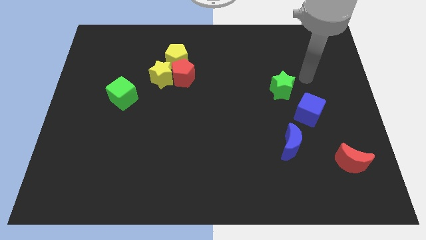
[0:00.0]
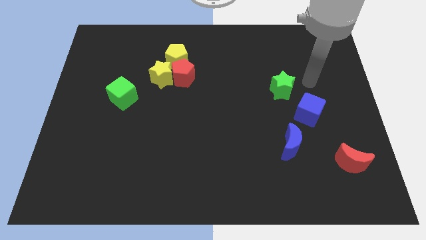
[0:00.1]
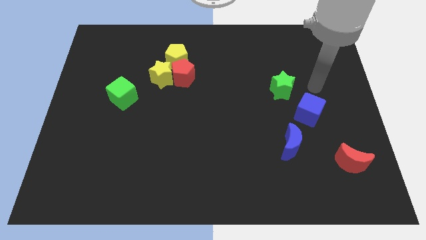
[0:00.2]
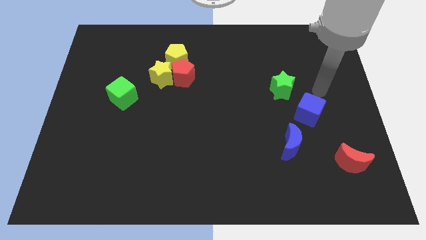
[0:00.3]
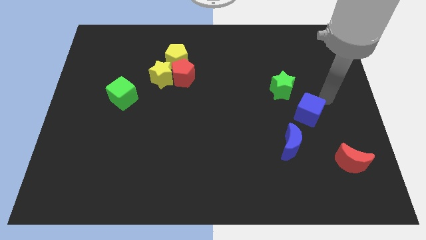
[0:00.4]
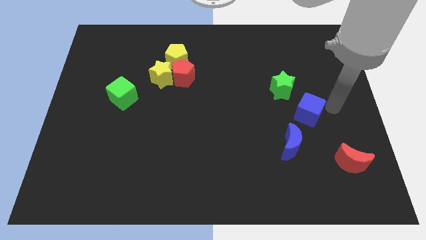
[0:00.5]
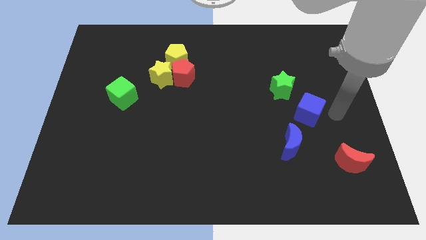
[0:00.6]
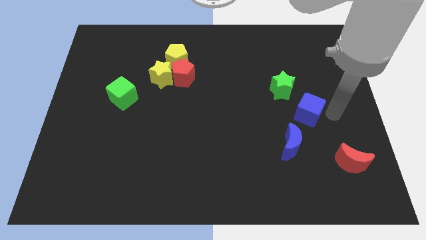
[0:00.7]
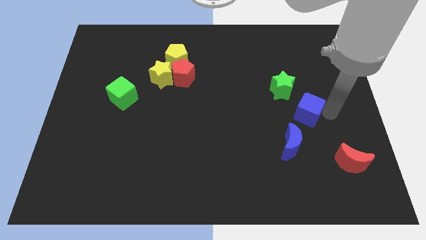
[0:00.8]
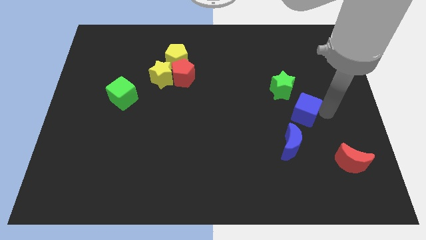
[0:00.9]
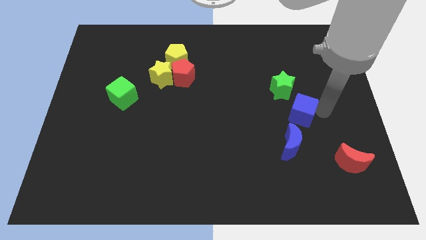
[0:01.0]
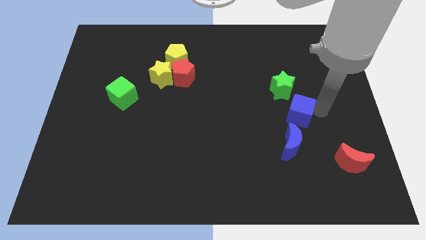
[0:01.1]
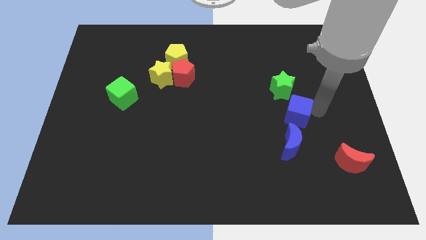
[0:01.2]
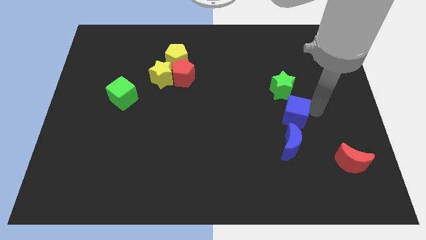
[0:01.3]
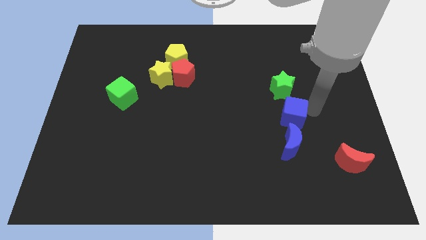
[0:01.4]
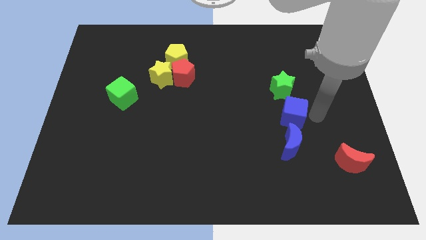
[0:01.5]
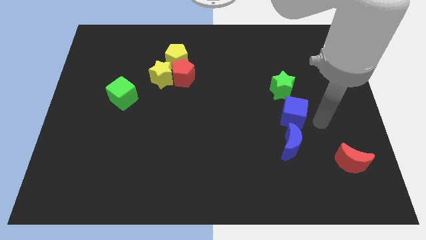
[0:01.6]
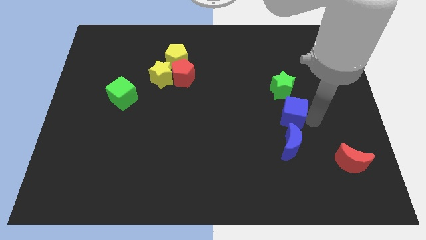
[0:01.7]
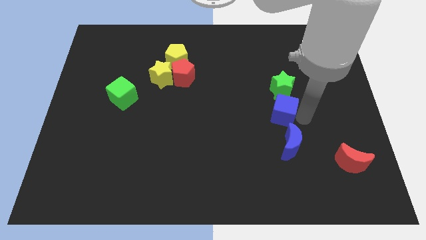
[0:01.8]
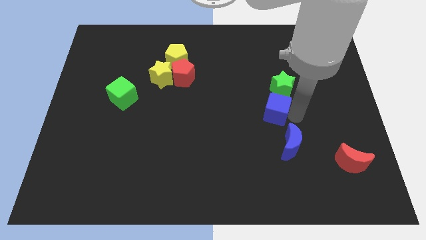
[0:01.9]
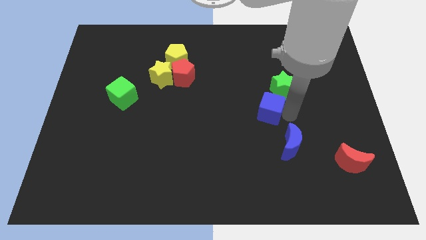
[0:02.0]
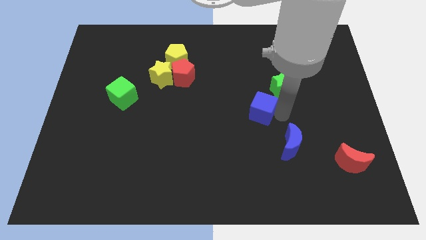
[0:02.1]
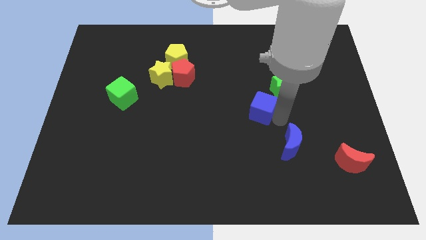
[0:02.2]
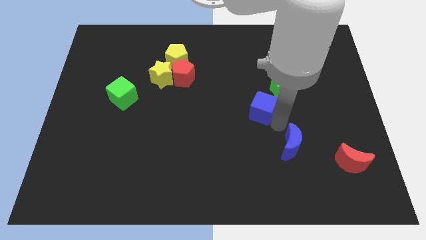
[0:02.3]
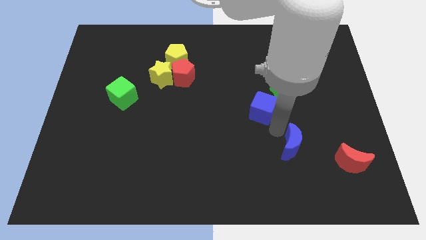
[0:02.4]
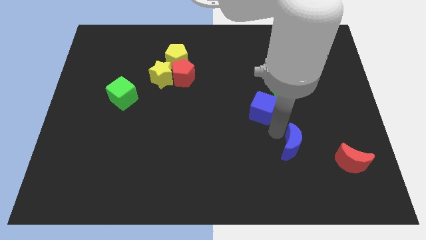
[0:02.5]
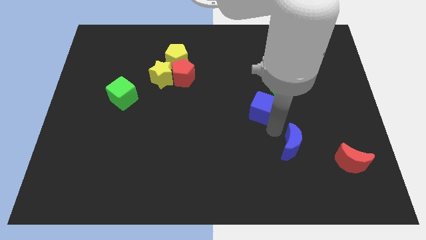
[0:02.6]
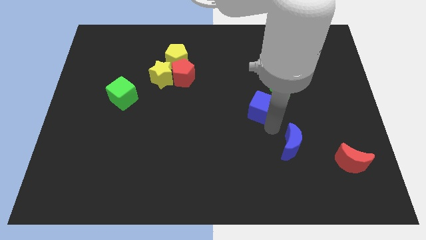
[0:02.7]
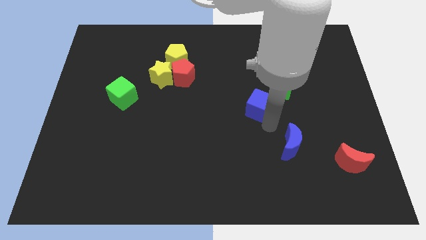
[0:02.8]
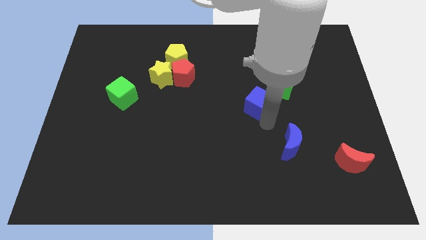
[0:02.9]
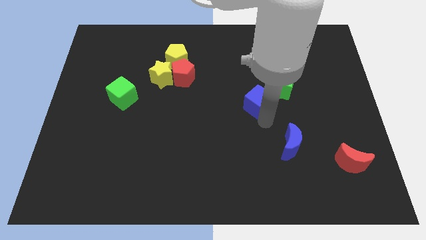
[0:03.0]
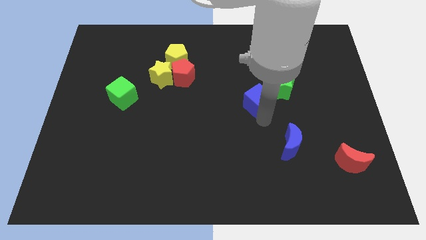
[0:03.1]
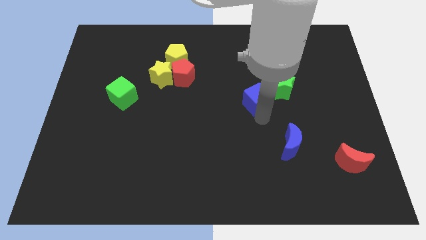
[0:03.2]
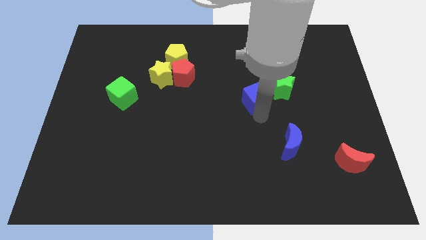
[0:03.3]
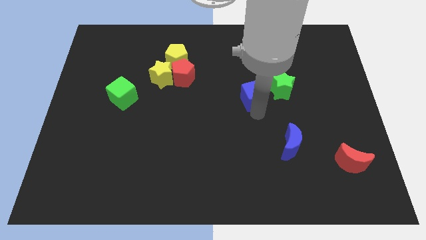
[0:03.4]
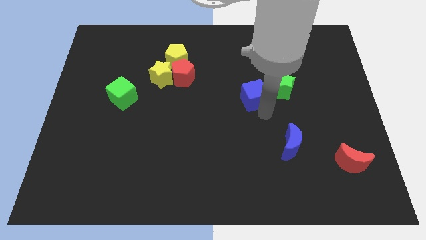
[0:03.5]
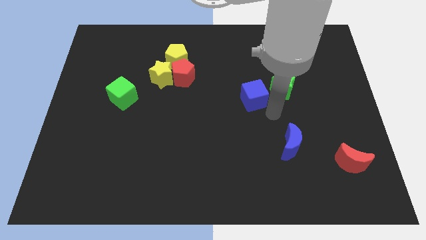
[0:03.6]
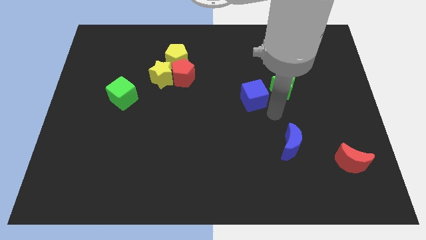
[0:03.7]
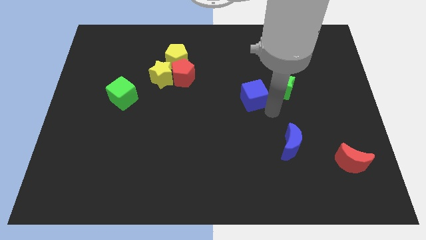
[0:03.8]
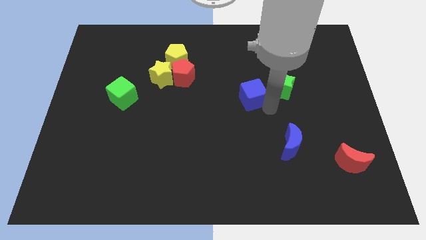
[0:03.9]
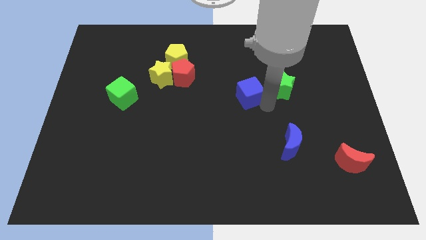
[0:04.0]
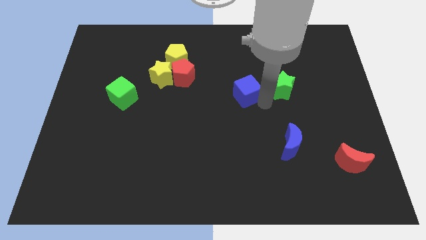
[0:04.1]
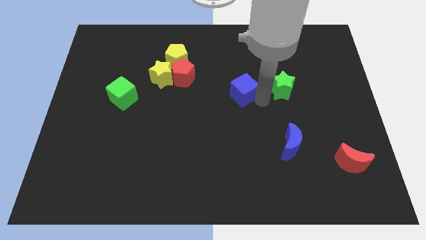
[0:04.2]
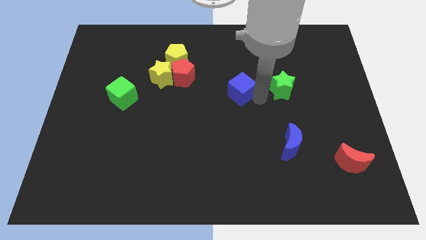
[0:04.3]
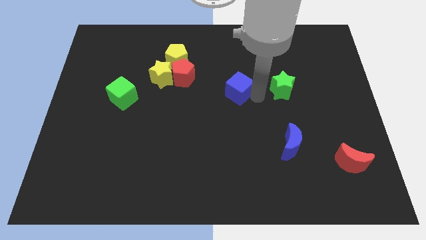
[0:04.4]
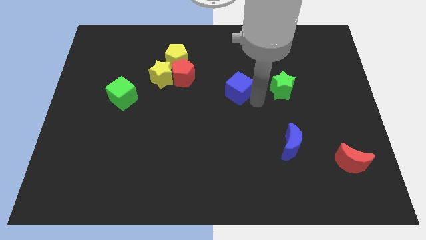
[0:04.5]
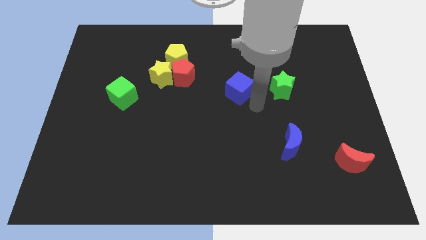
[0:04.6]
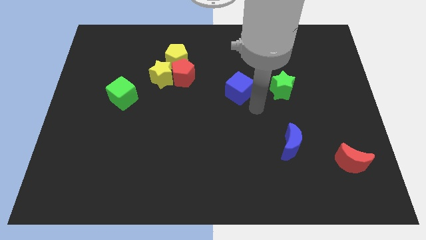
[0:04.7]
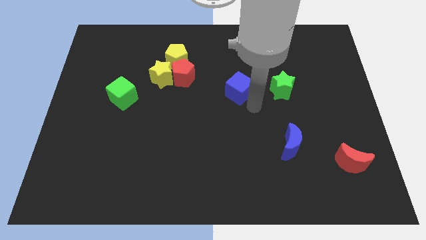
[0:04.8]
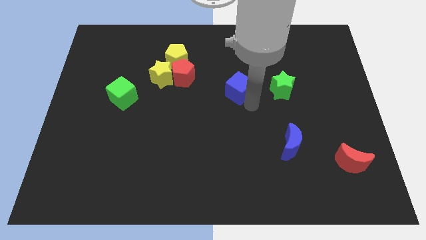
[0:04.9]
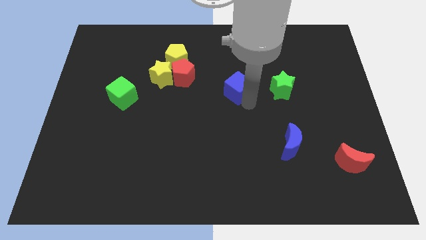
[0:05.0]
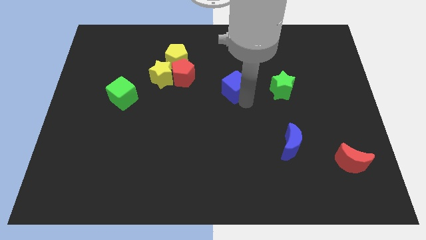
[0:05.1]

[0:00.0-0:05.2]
push the blue cube to the right of the red pentagon

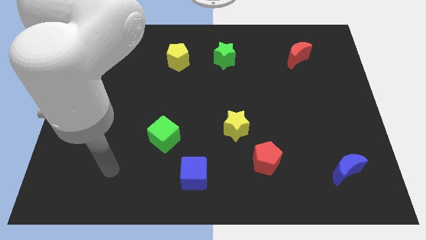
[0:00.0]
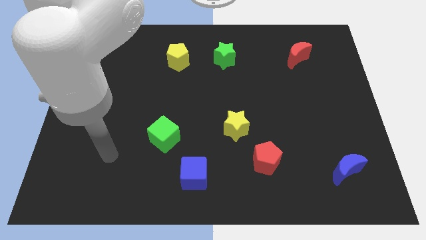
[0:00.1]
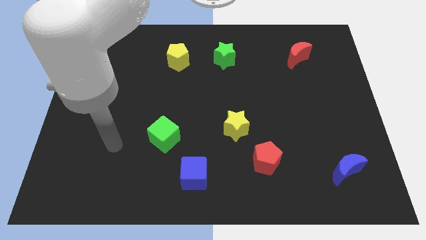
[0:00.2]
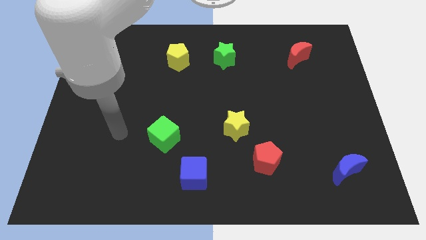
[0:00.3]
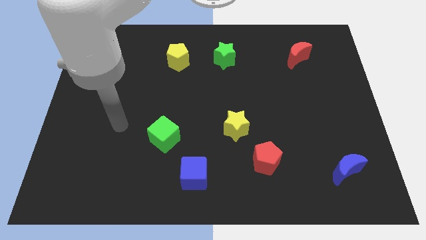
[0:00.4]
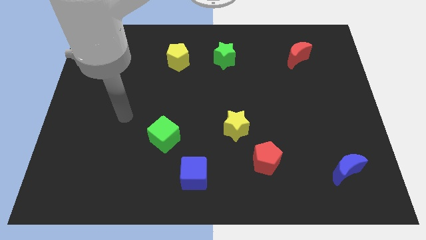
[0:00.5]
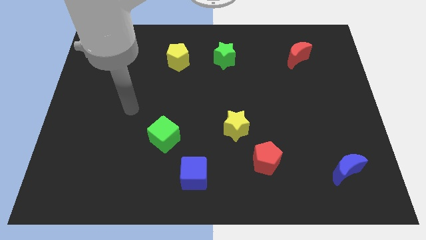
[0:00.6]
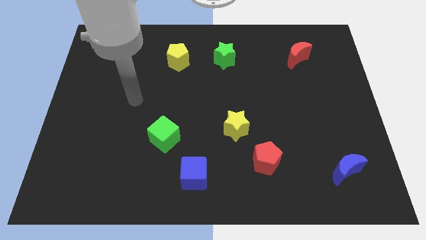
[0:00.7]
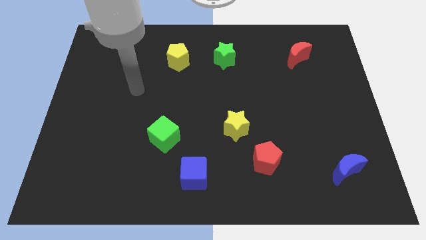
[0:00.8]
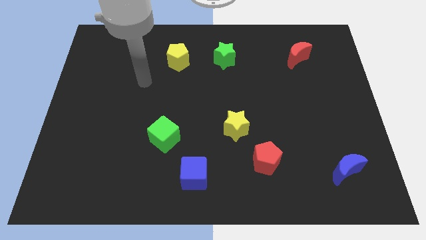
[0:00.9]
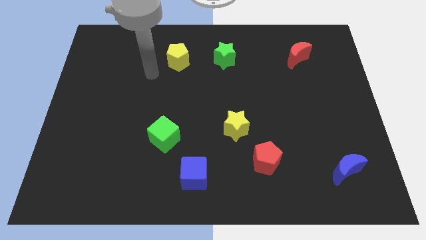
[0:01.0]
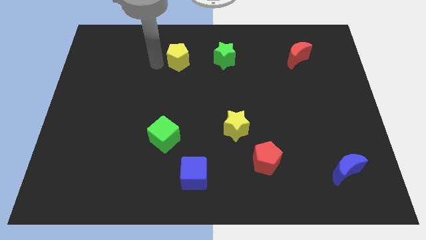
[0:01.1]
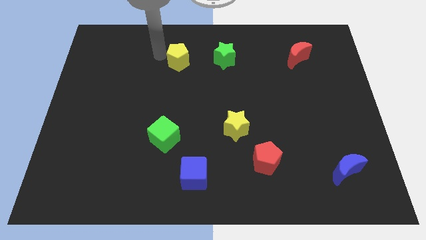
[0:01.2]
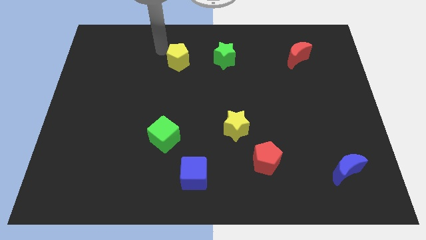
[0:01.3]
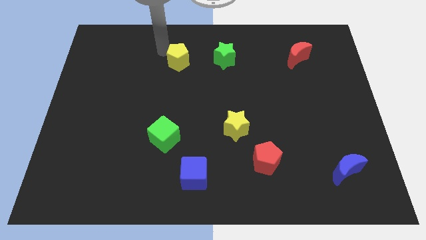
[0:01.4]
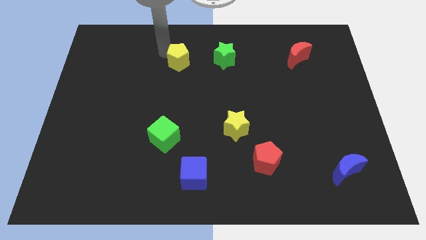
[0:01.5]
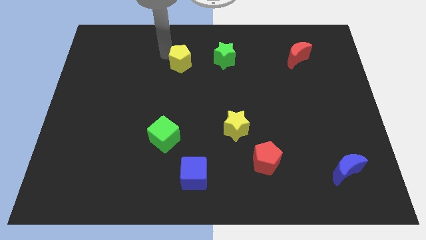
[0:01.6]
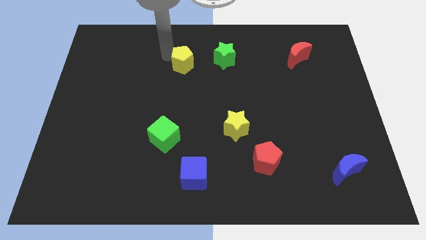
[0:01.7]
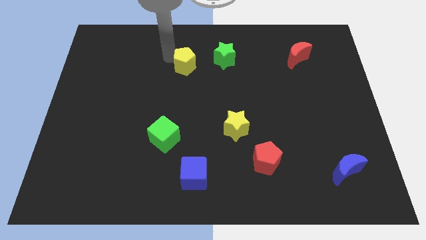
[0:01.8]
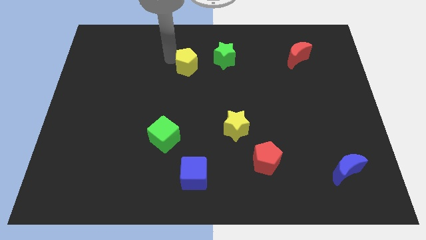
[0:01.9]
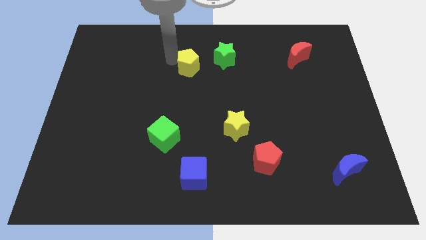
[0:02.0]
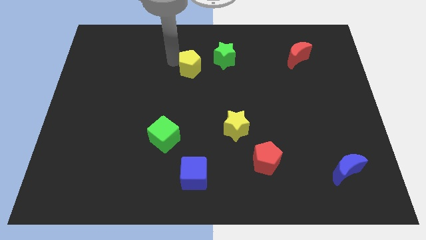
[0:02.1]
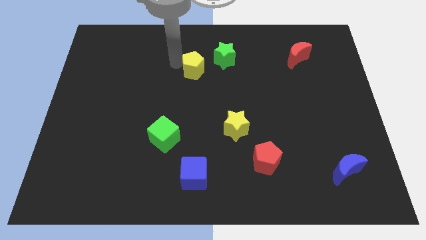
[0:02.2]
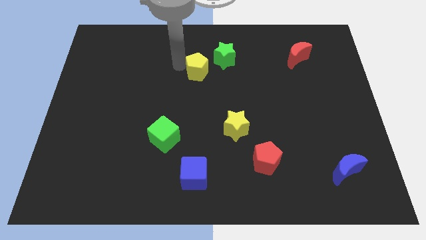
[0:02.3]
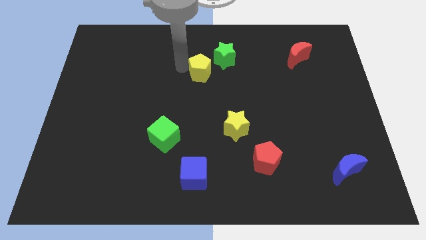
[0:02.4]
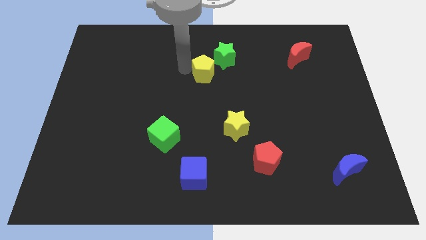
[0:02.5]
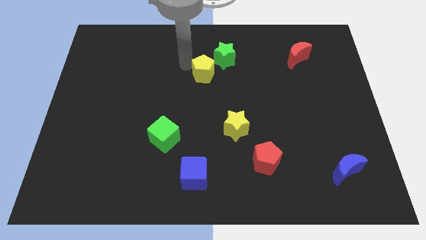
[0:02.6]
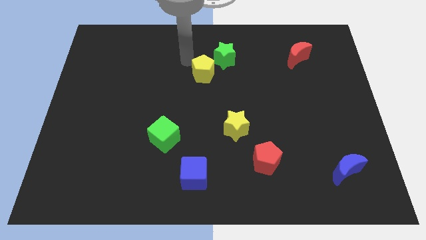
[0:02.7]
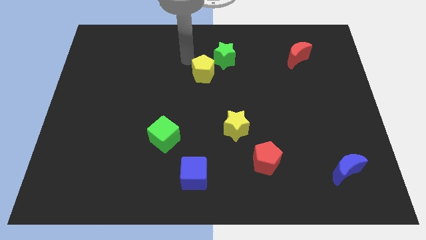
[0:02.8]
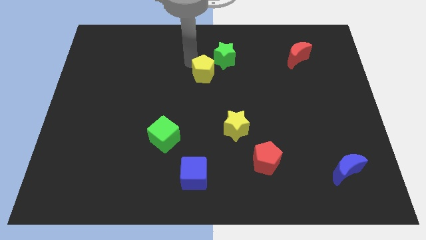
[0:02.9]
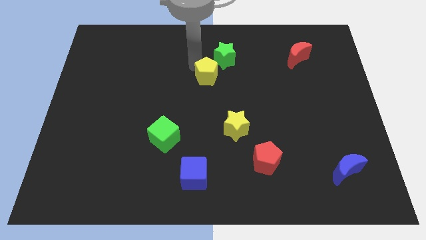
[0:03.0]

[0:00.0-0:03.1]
move the yellow pentagon below the green star
